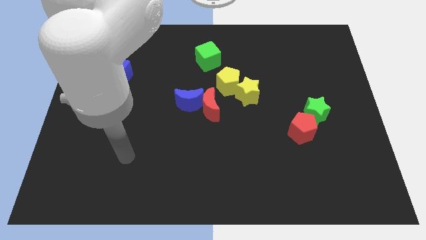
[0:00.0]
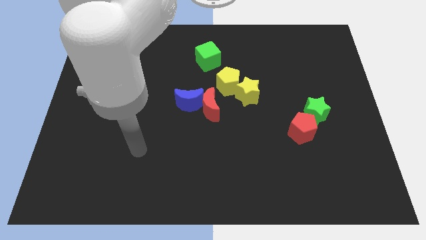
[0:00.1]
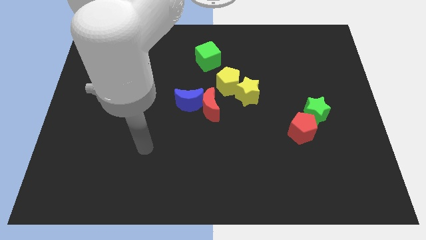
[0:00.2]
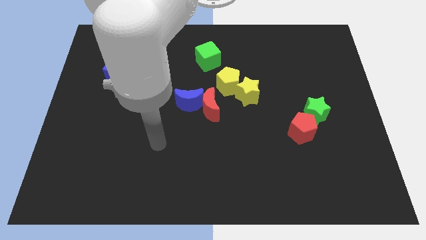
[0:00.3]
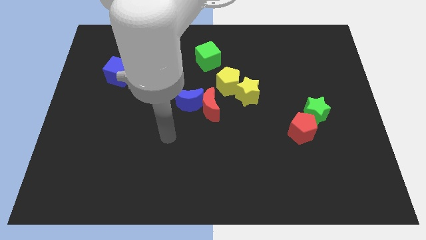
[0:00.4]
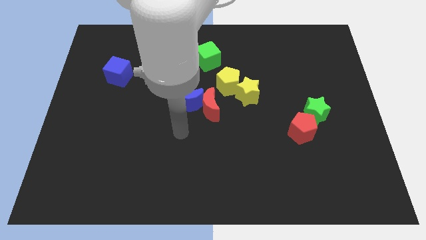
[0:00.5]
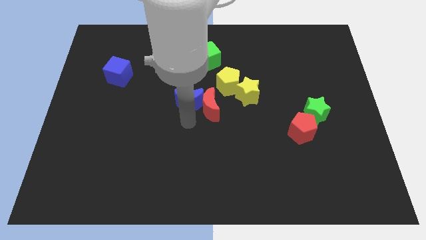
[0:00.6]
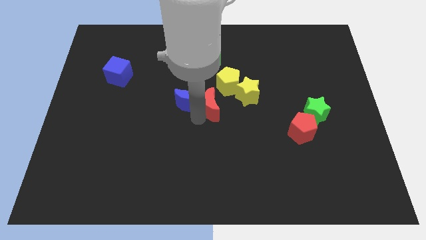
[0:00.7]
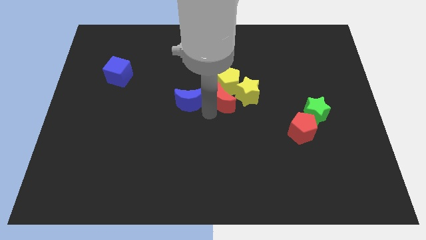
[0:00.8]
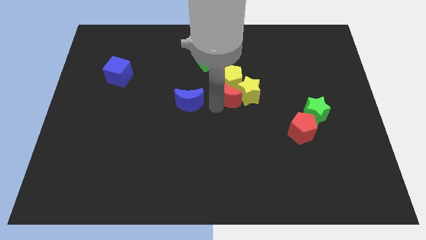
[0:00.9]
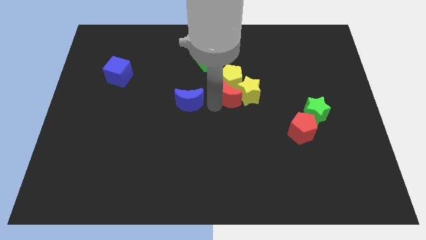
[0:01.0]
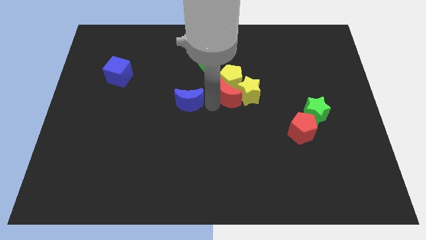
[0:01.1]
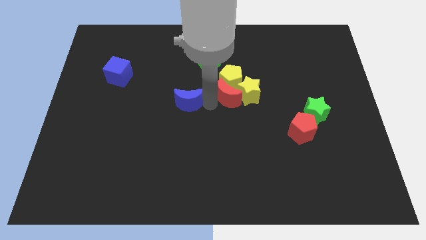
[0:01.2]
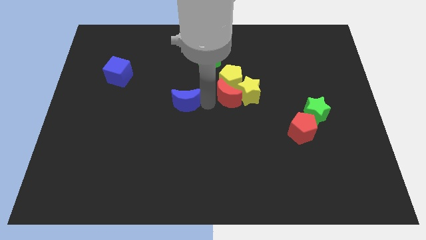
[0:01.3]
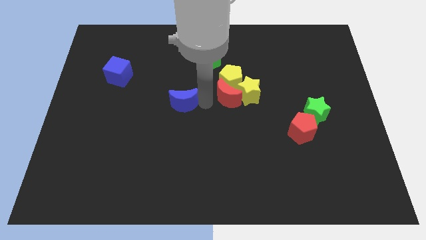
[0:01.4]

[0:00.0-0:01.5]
separate the blue moon from the red moon

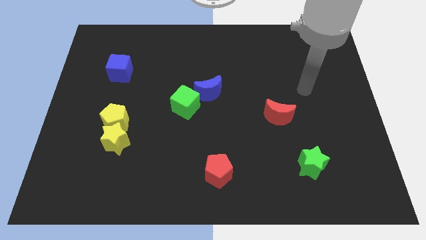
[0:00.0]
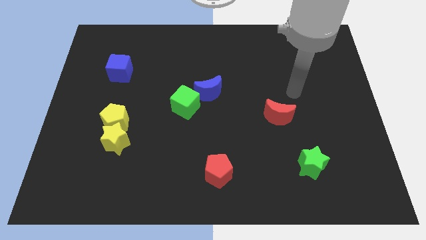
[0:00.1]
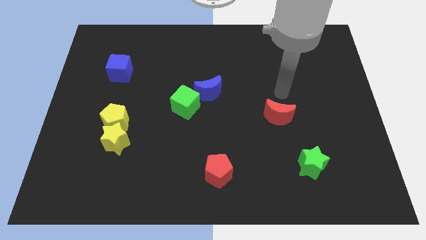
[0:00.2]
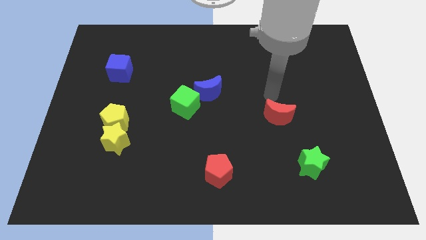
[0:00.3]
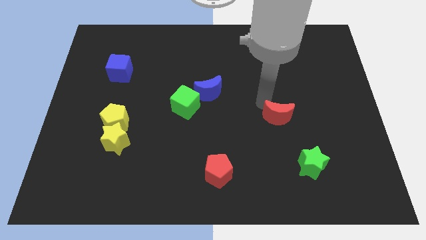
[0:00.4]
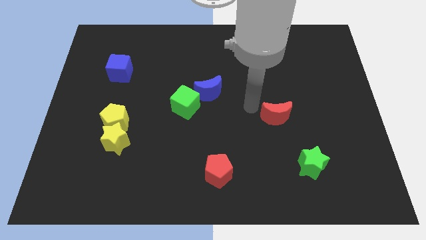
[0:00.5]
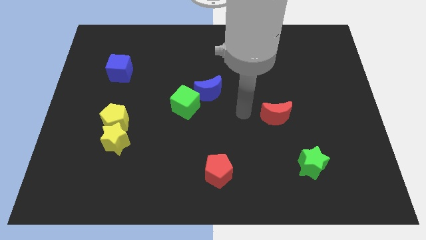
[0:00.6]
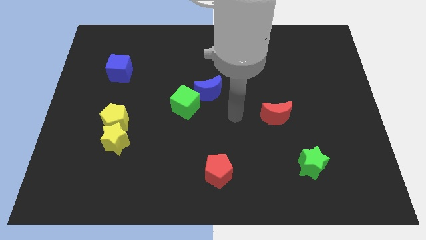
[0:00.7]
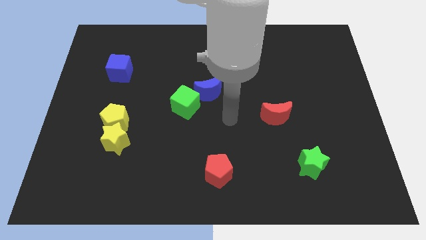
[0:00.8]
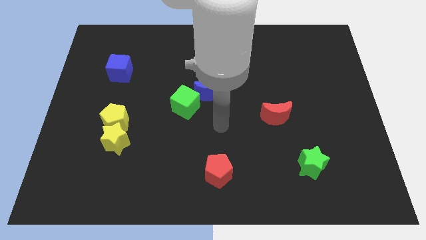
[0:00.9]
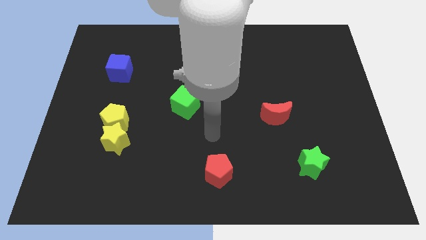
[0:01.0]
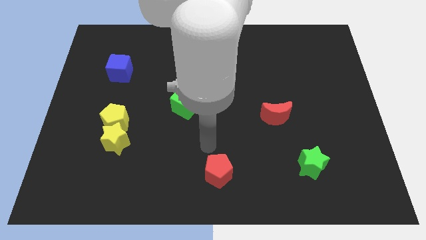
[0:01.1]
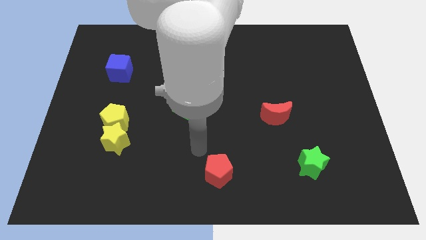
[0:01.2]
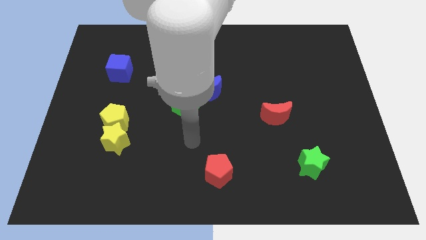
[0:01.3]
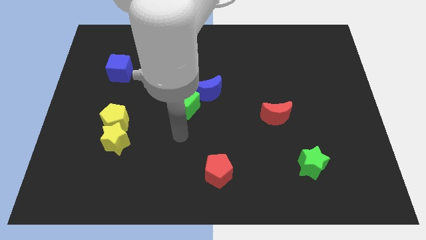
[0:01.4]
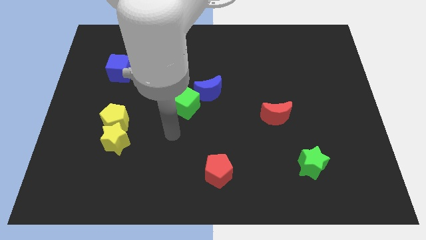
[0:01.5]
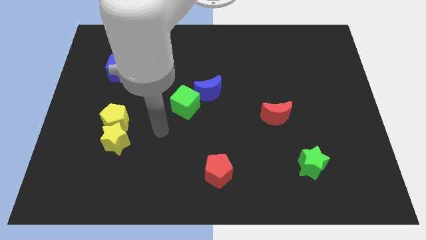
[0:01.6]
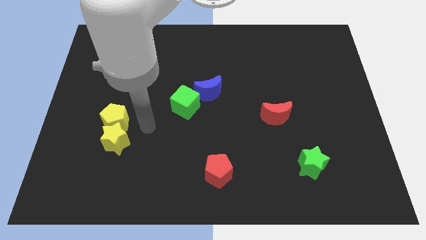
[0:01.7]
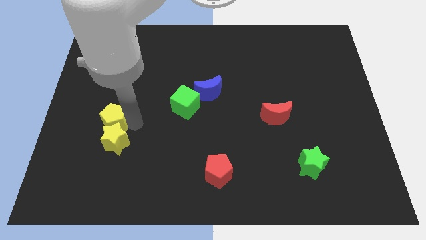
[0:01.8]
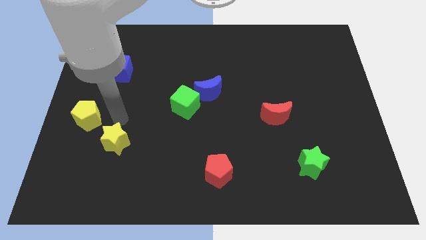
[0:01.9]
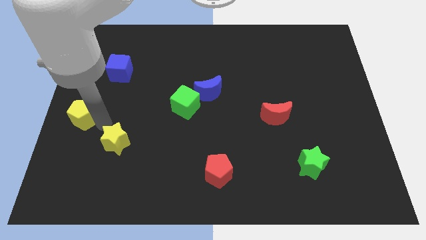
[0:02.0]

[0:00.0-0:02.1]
move the yellow star away from the yellow pentagon

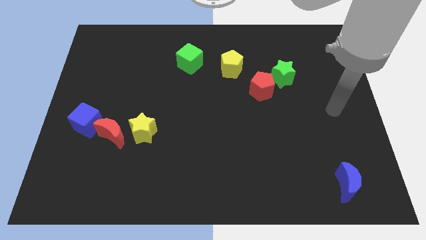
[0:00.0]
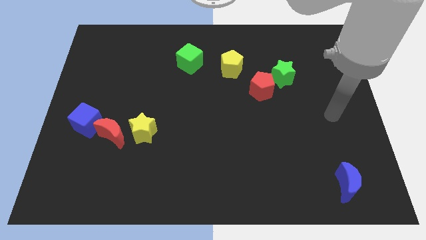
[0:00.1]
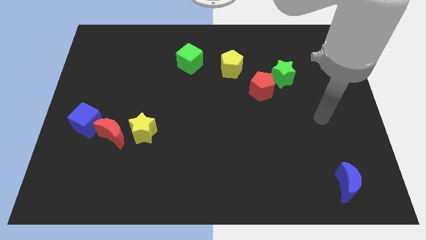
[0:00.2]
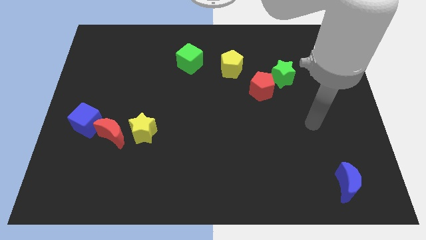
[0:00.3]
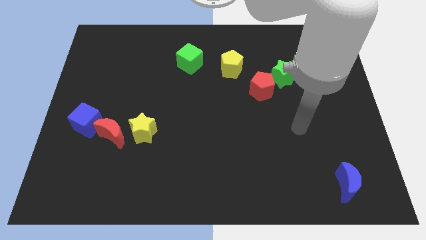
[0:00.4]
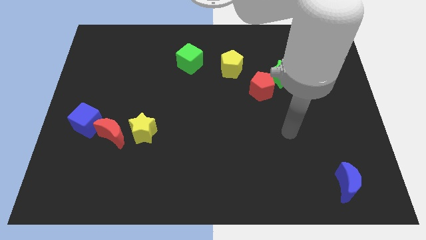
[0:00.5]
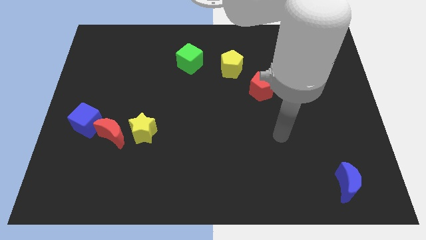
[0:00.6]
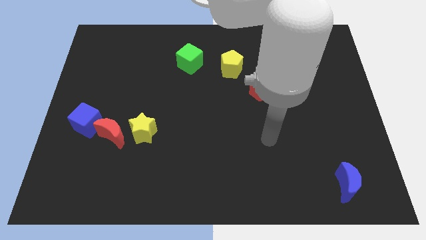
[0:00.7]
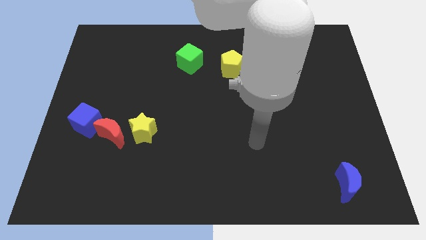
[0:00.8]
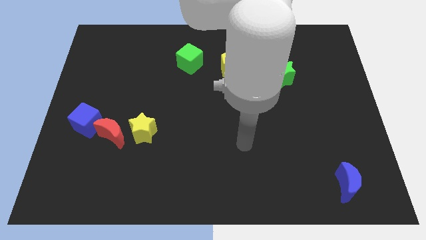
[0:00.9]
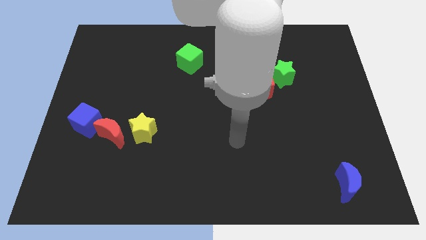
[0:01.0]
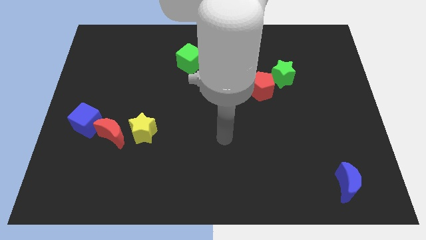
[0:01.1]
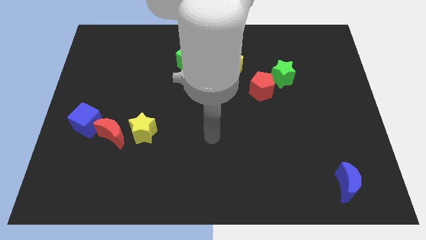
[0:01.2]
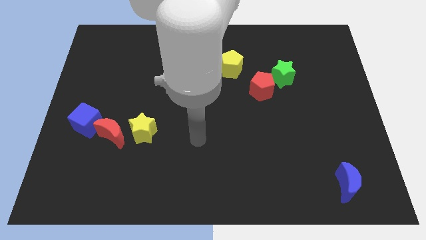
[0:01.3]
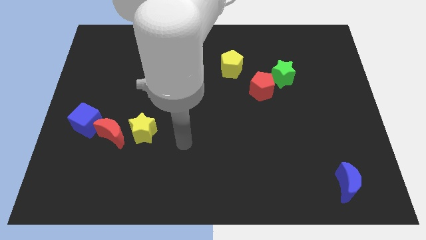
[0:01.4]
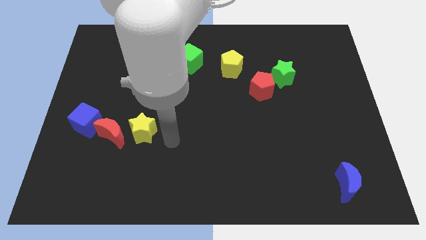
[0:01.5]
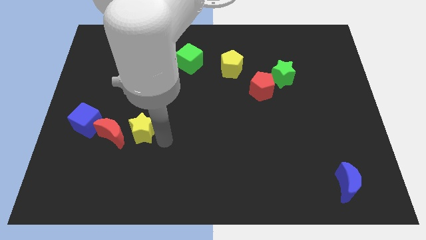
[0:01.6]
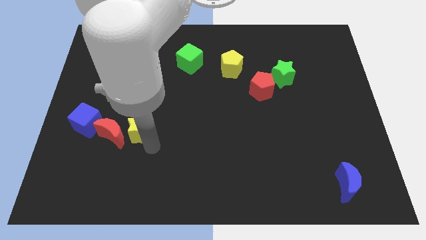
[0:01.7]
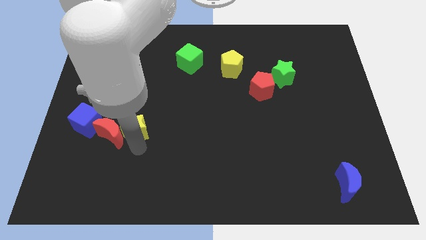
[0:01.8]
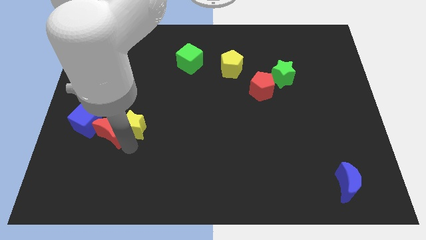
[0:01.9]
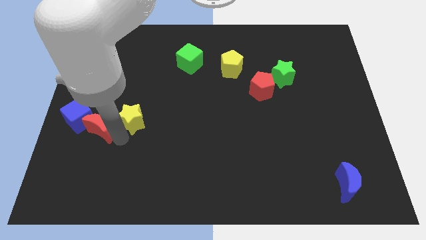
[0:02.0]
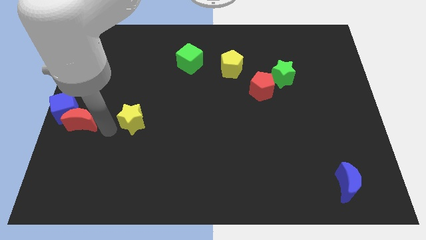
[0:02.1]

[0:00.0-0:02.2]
move the yellow star away from the red moon

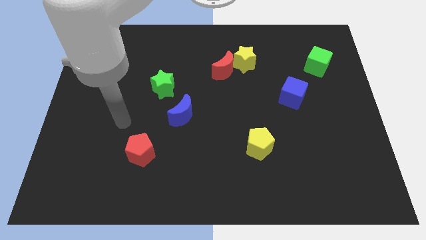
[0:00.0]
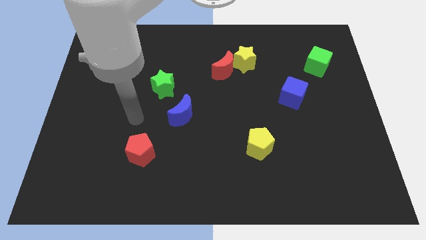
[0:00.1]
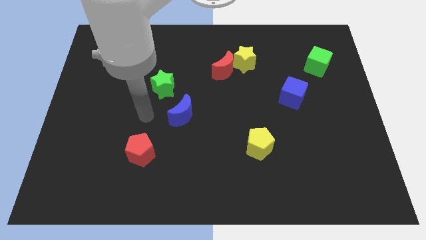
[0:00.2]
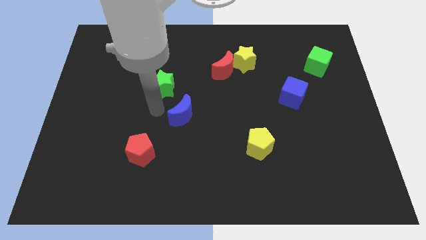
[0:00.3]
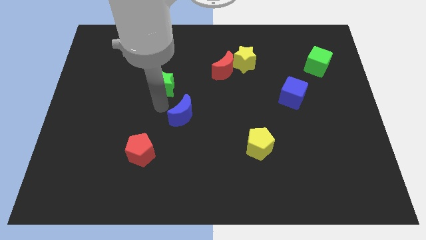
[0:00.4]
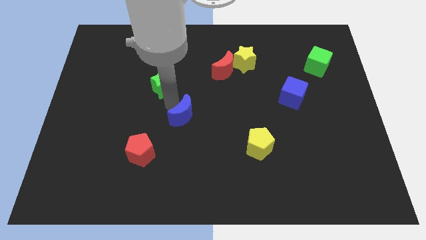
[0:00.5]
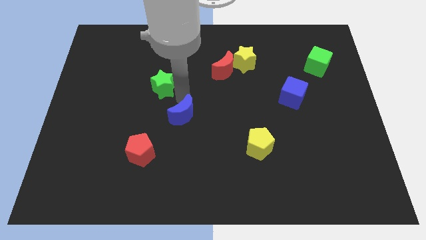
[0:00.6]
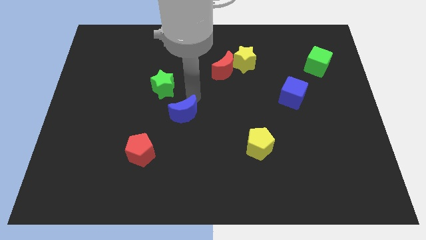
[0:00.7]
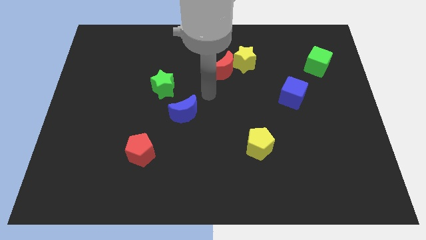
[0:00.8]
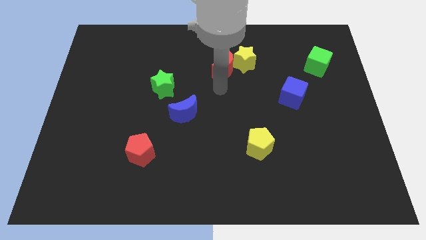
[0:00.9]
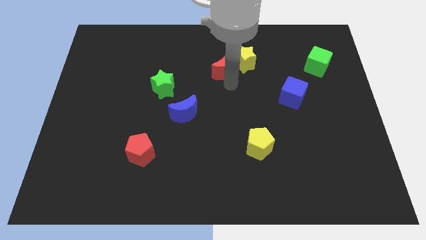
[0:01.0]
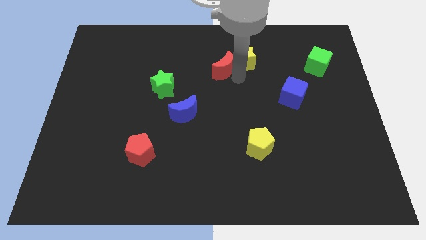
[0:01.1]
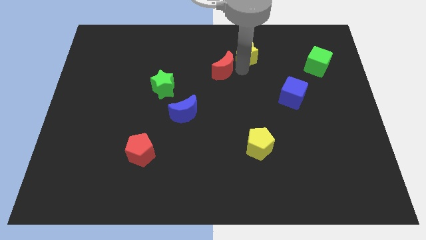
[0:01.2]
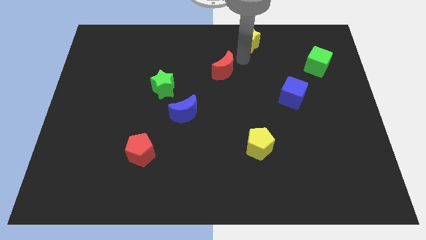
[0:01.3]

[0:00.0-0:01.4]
move the red moon away from the yellow star

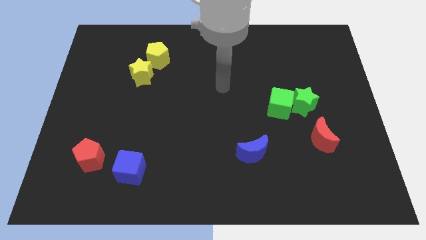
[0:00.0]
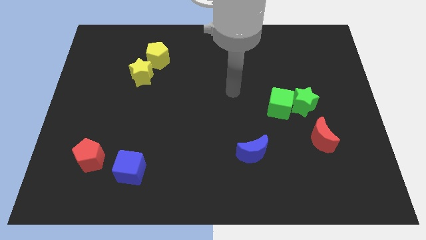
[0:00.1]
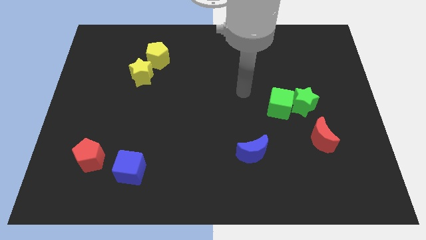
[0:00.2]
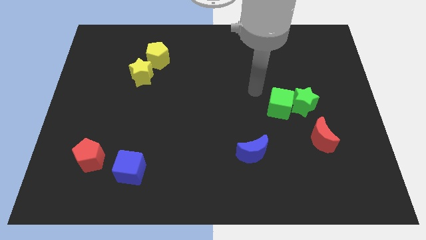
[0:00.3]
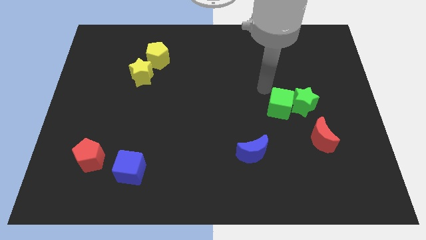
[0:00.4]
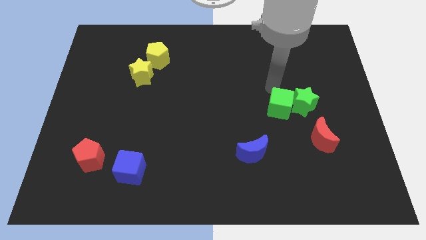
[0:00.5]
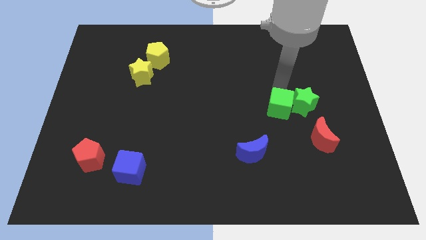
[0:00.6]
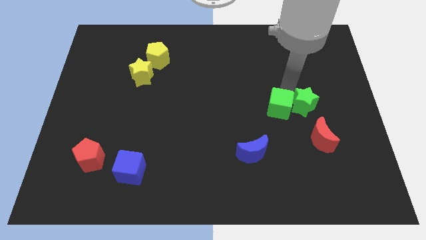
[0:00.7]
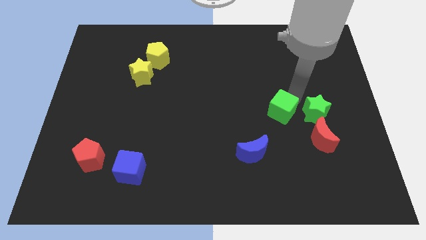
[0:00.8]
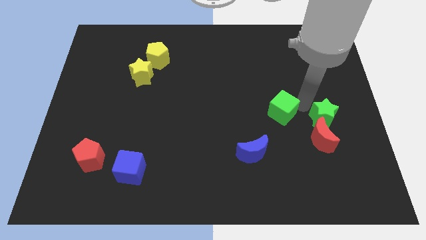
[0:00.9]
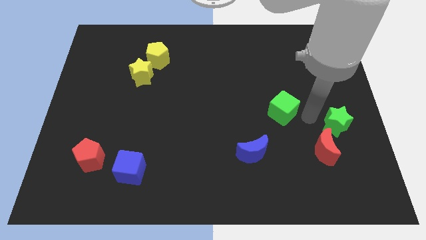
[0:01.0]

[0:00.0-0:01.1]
separate the green cube from the green star

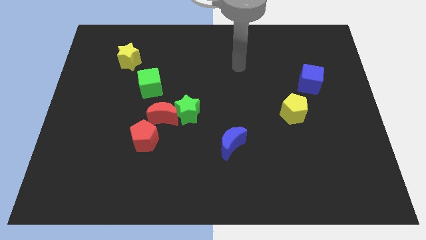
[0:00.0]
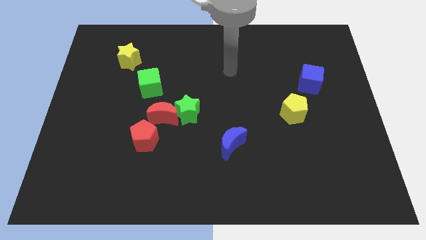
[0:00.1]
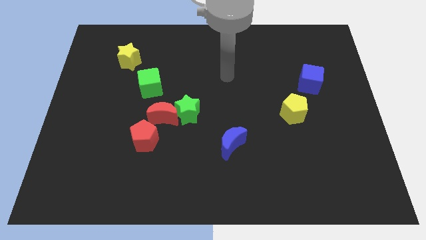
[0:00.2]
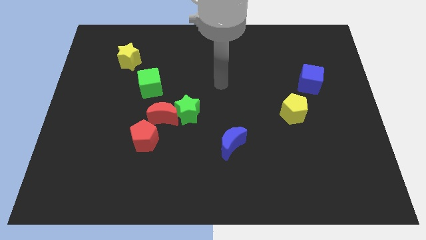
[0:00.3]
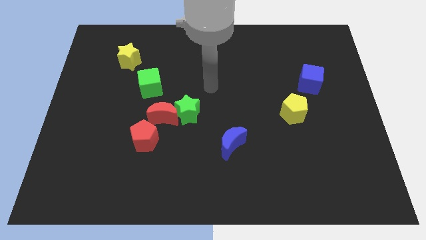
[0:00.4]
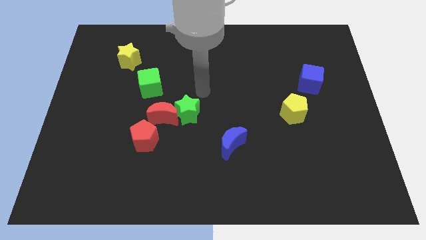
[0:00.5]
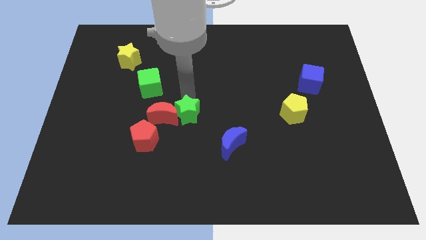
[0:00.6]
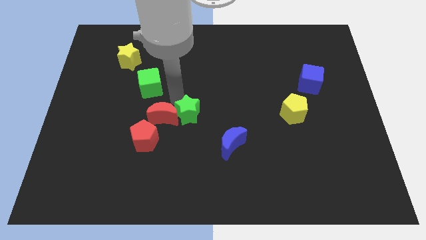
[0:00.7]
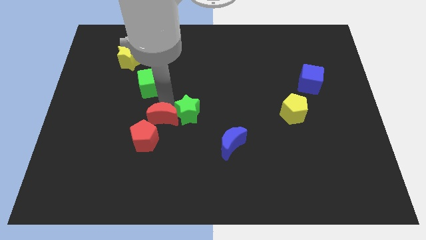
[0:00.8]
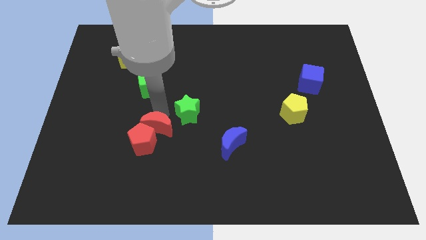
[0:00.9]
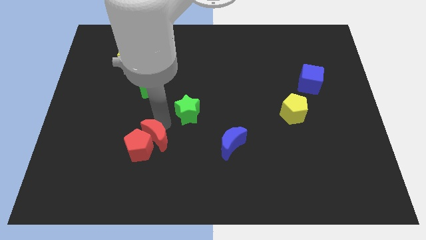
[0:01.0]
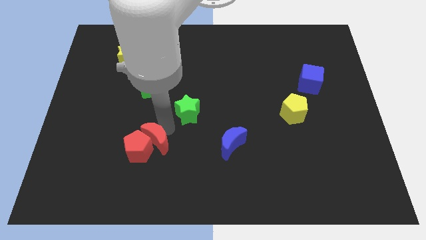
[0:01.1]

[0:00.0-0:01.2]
move the green star away from the red moon
